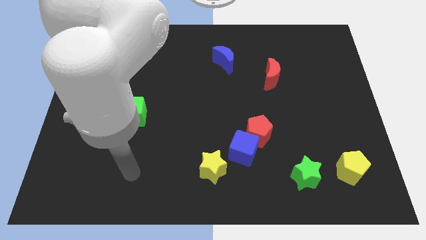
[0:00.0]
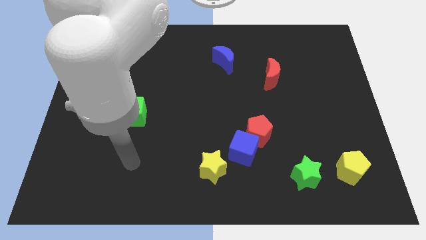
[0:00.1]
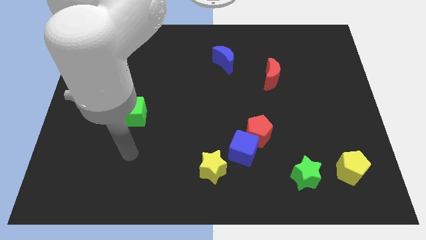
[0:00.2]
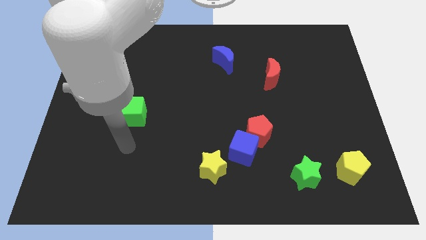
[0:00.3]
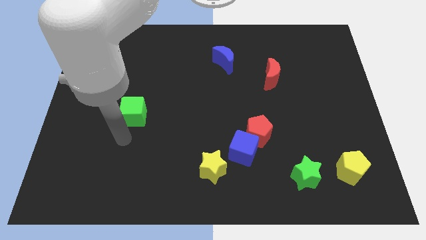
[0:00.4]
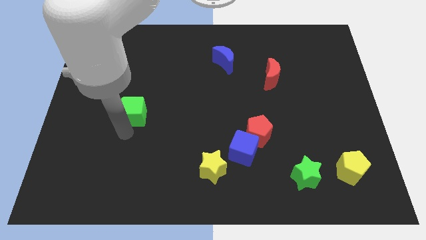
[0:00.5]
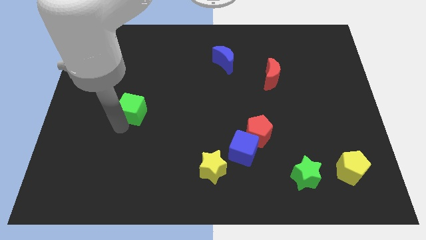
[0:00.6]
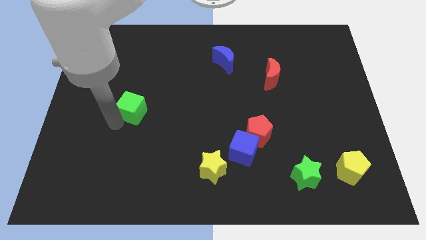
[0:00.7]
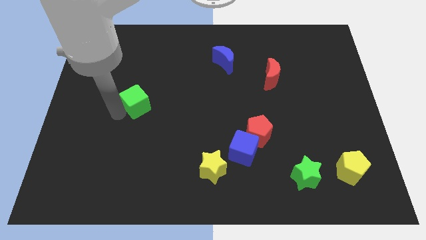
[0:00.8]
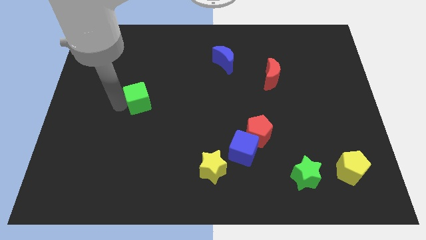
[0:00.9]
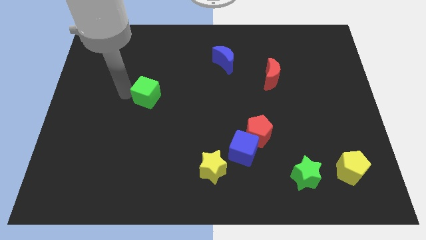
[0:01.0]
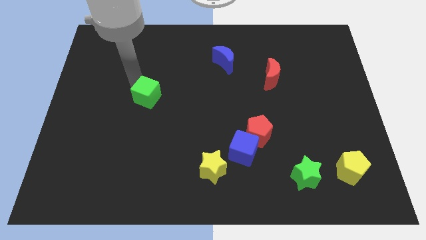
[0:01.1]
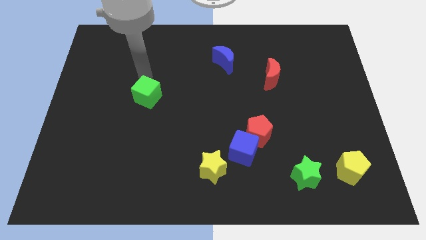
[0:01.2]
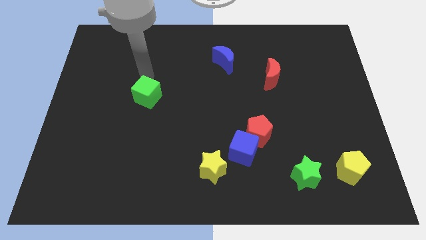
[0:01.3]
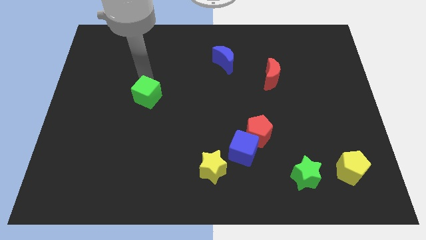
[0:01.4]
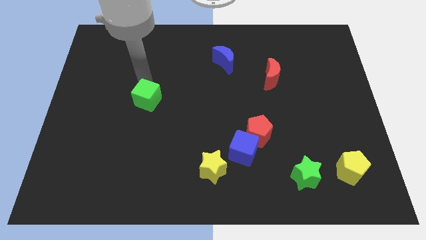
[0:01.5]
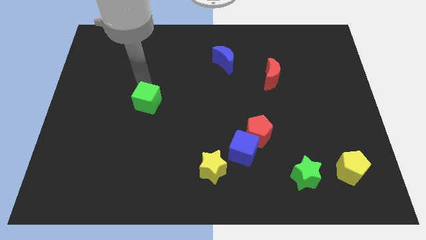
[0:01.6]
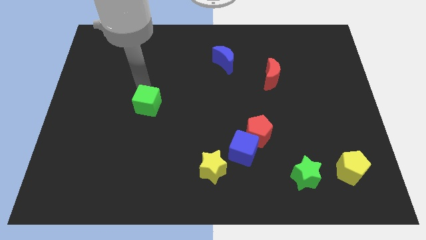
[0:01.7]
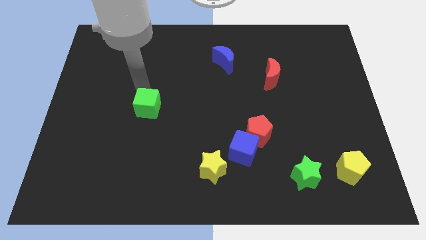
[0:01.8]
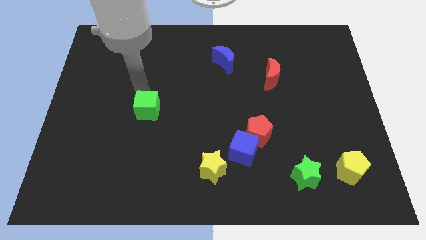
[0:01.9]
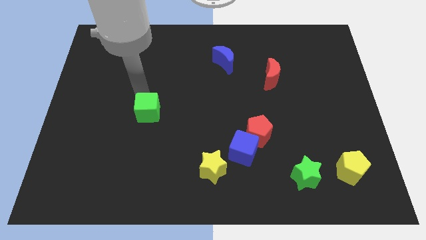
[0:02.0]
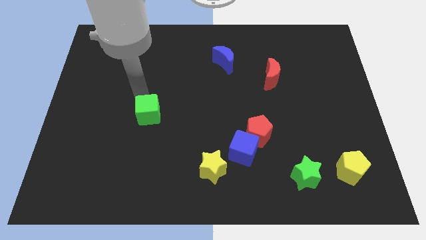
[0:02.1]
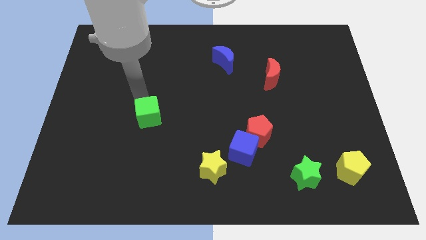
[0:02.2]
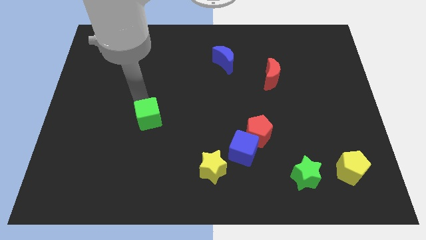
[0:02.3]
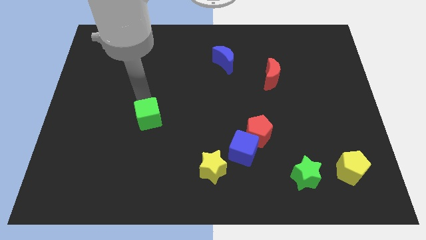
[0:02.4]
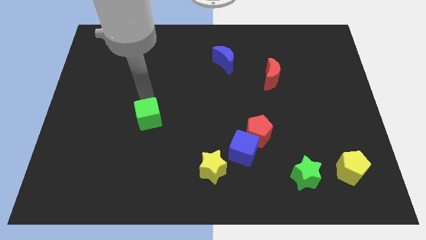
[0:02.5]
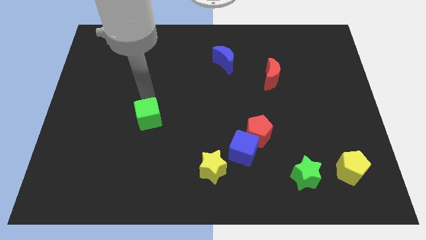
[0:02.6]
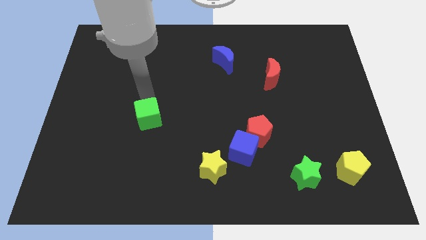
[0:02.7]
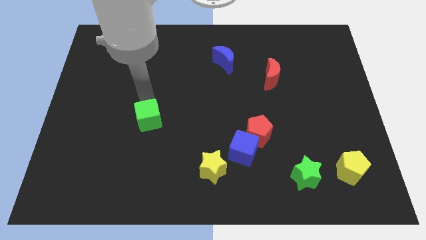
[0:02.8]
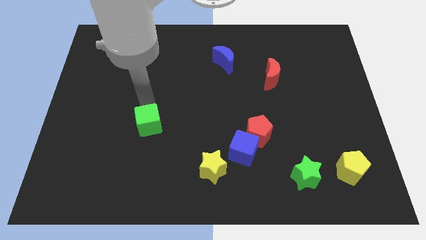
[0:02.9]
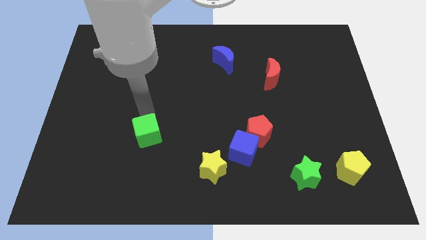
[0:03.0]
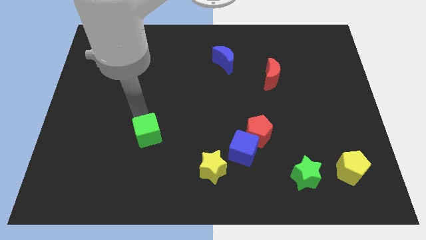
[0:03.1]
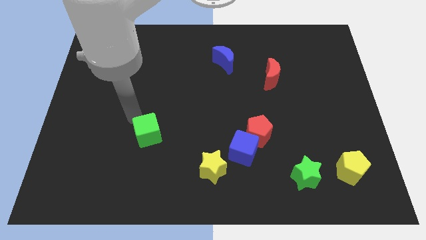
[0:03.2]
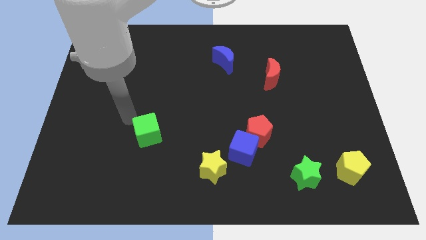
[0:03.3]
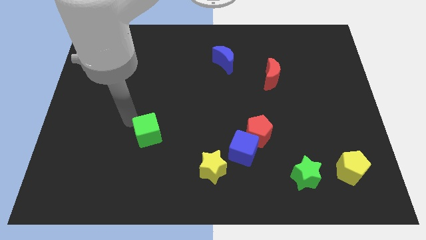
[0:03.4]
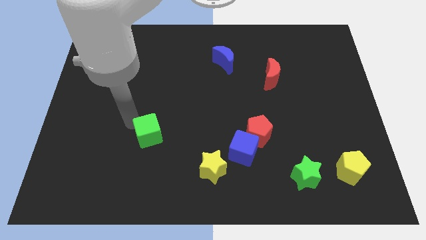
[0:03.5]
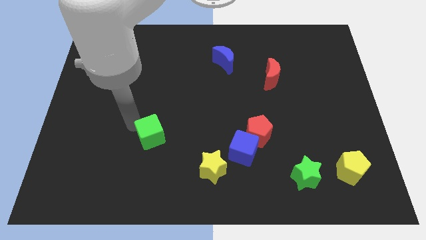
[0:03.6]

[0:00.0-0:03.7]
move the green cube a little diagonally downwards and right

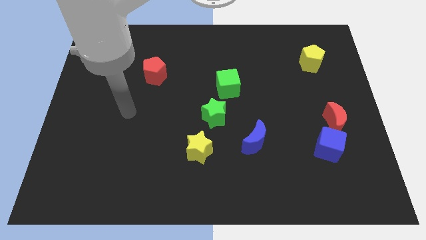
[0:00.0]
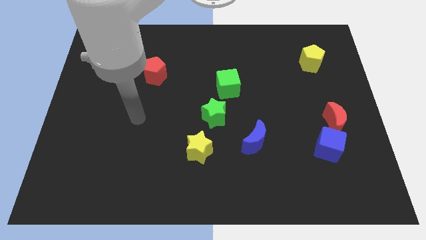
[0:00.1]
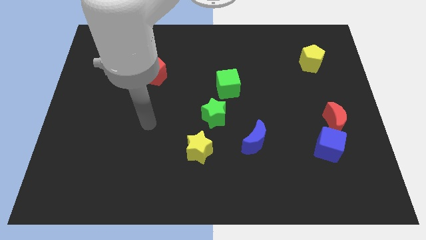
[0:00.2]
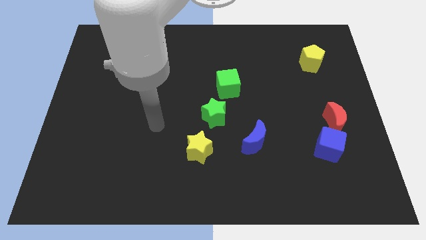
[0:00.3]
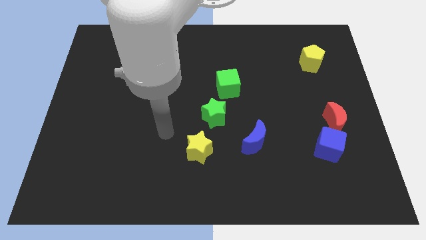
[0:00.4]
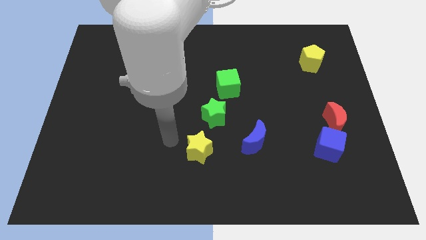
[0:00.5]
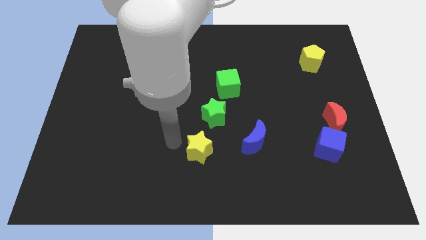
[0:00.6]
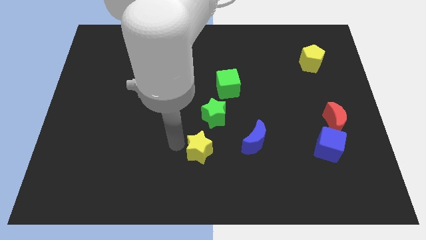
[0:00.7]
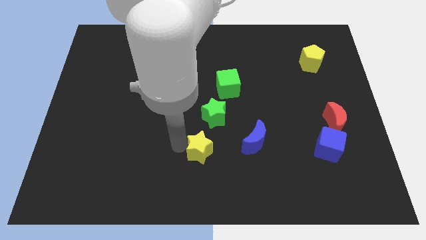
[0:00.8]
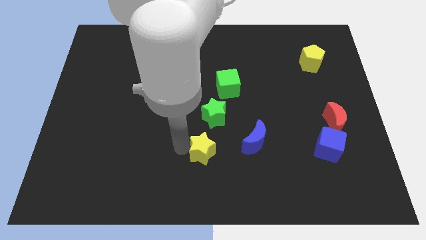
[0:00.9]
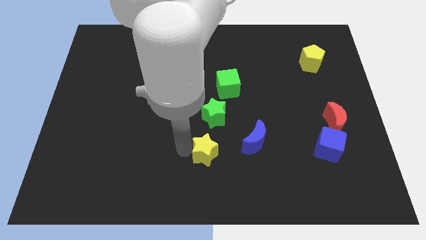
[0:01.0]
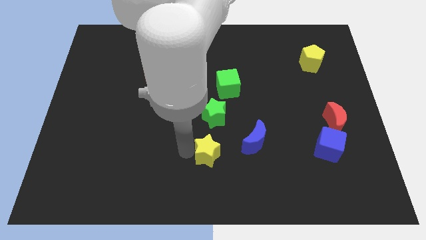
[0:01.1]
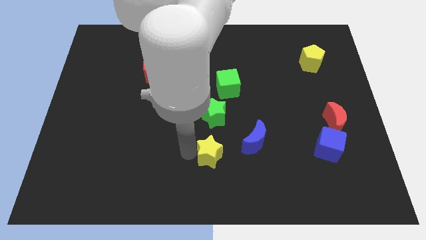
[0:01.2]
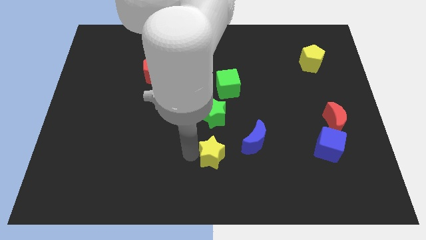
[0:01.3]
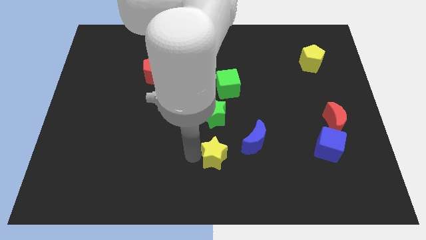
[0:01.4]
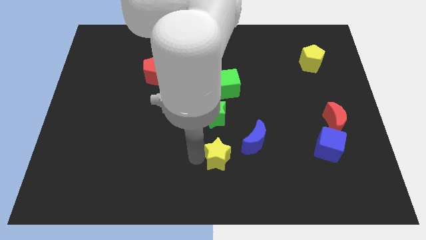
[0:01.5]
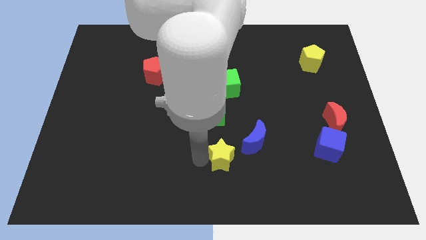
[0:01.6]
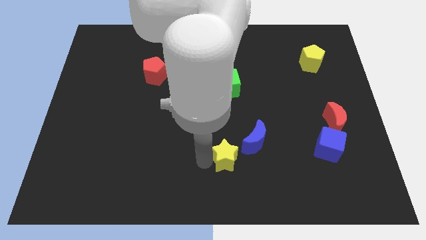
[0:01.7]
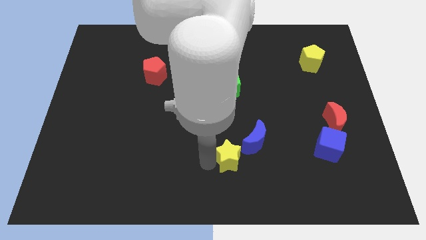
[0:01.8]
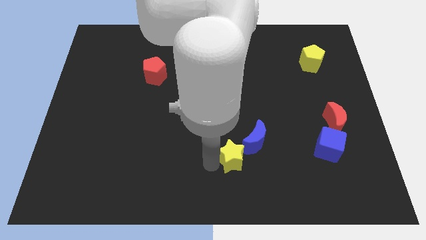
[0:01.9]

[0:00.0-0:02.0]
slide the yellow star a little bit to the right

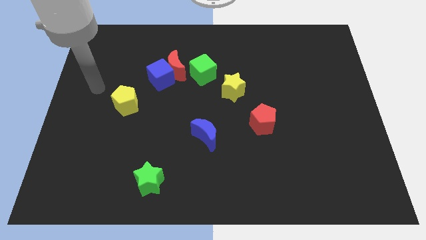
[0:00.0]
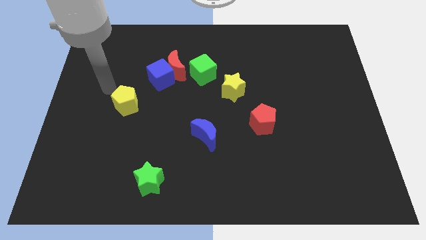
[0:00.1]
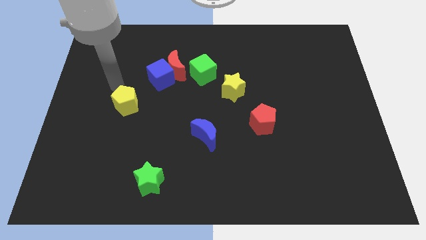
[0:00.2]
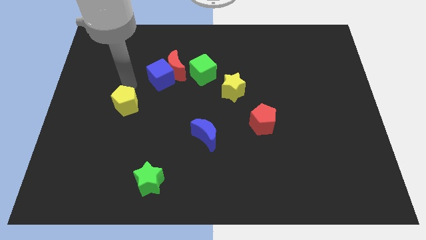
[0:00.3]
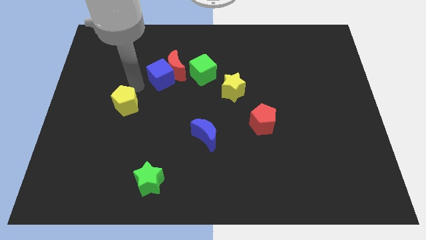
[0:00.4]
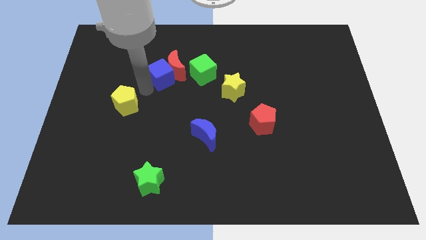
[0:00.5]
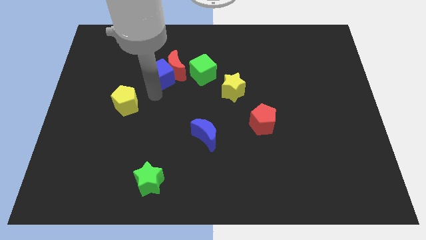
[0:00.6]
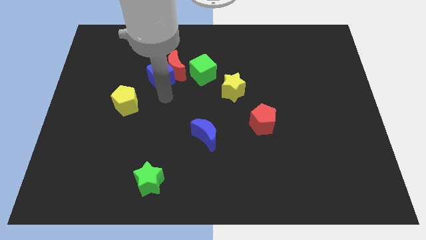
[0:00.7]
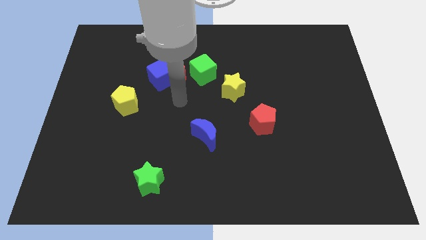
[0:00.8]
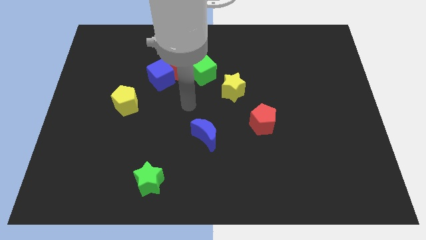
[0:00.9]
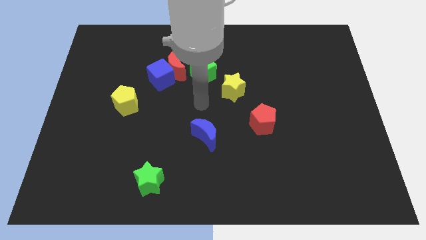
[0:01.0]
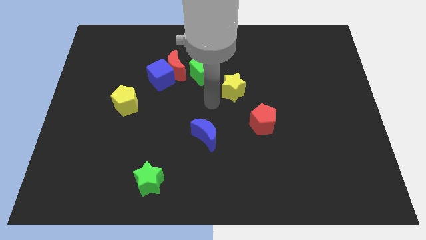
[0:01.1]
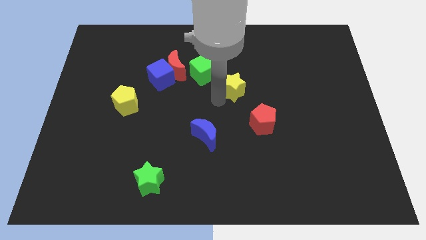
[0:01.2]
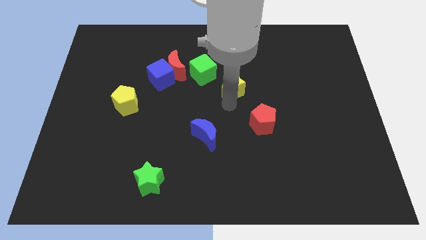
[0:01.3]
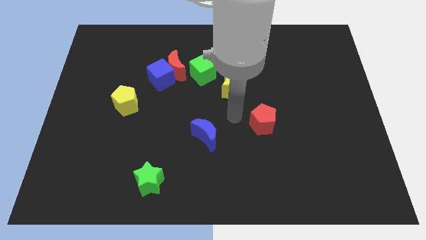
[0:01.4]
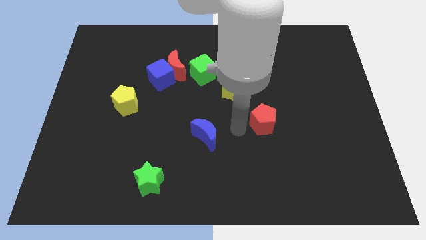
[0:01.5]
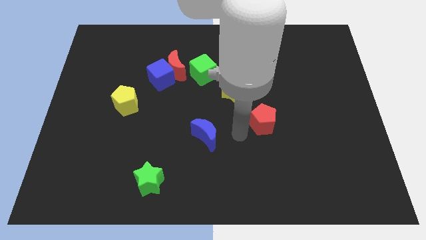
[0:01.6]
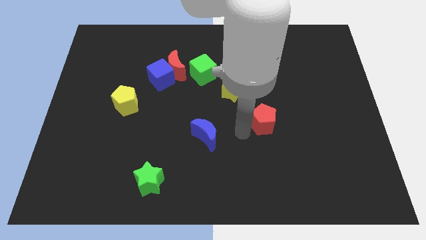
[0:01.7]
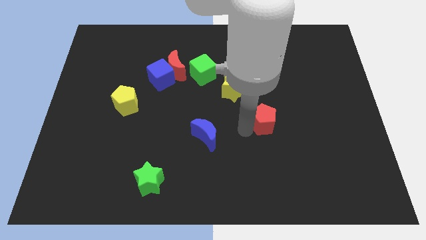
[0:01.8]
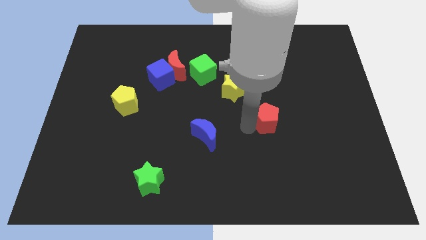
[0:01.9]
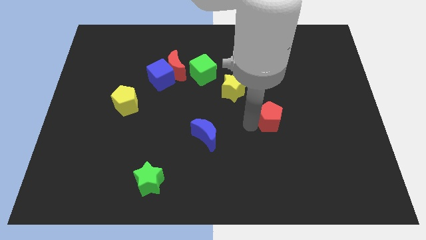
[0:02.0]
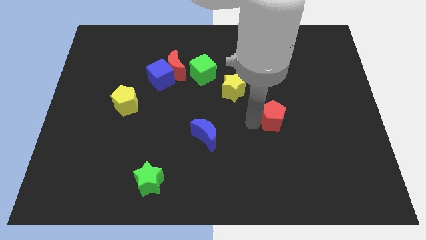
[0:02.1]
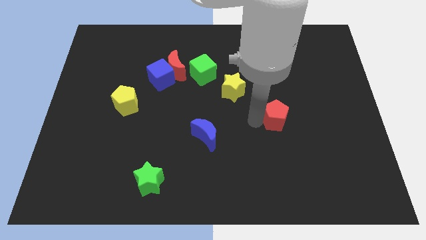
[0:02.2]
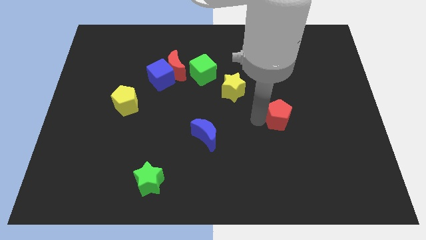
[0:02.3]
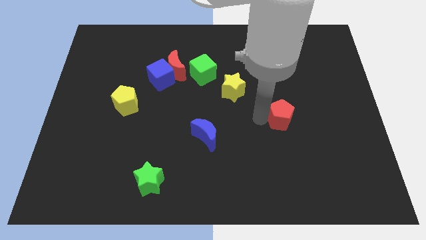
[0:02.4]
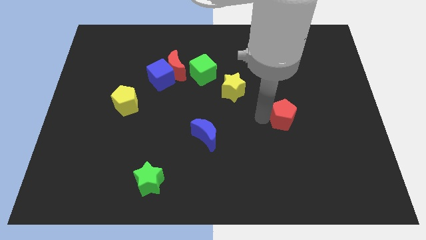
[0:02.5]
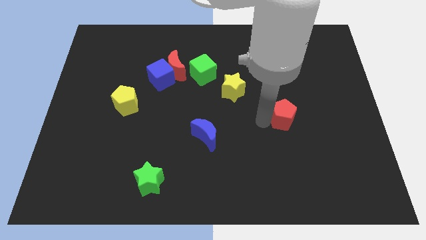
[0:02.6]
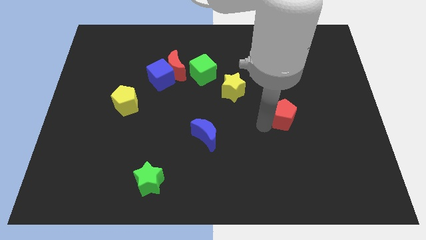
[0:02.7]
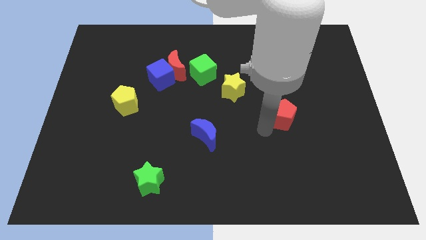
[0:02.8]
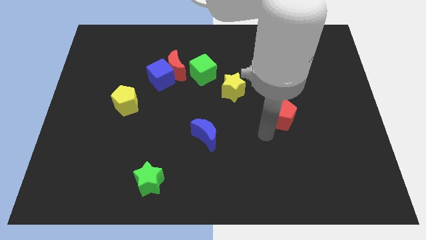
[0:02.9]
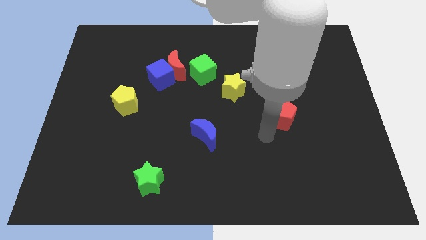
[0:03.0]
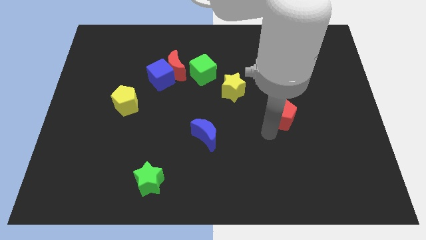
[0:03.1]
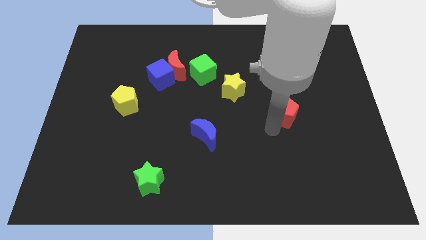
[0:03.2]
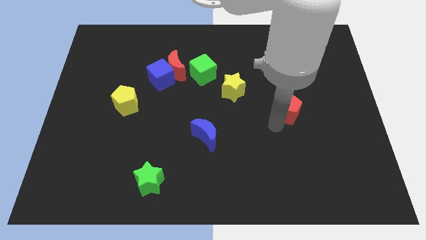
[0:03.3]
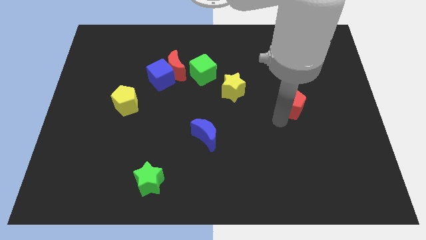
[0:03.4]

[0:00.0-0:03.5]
move the red pentagon diagonally up and right slightly
